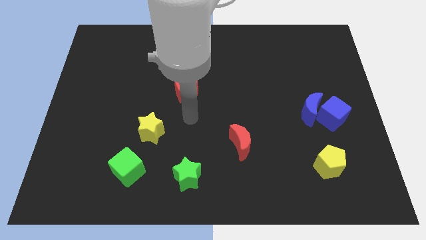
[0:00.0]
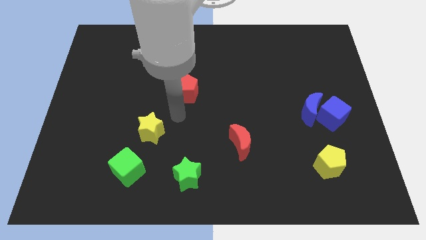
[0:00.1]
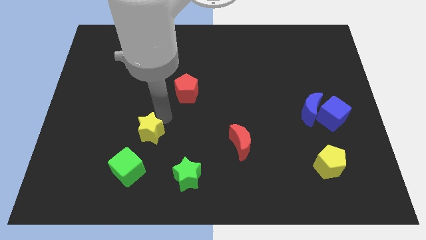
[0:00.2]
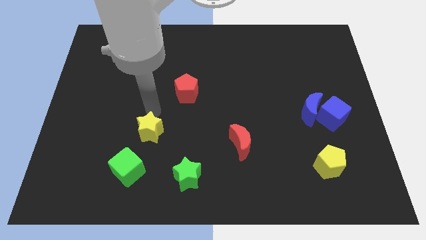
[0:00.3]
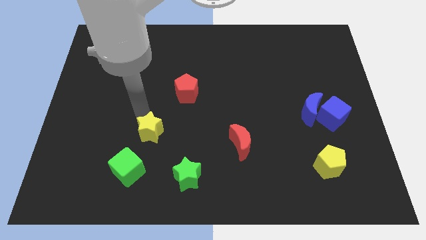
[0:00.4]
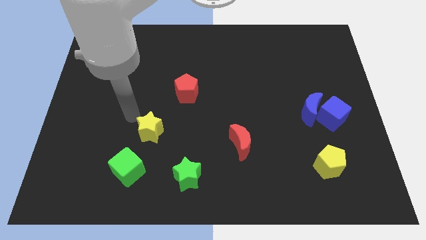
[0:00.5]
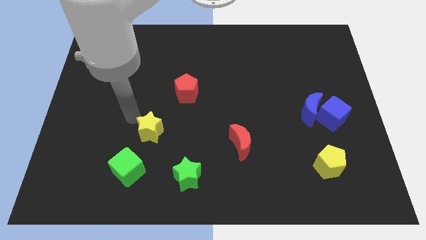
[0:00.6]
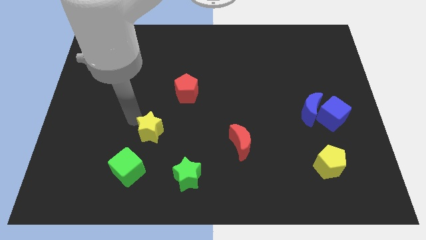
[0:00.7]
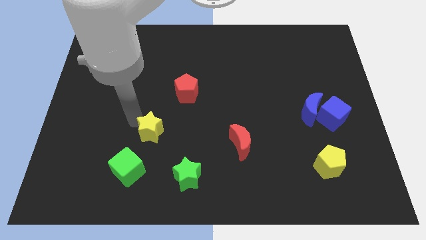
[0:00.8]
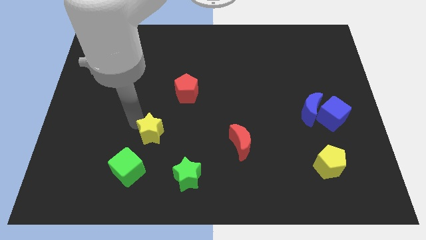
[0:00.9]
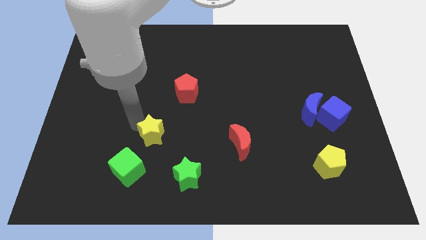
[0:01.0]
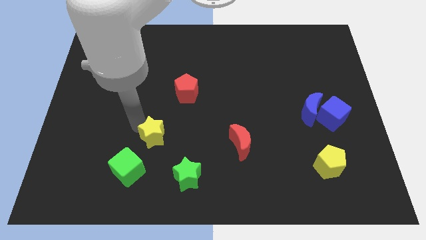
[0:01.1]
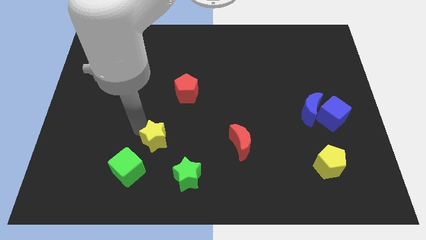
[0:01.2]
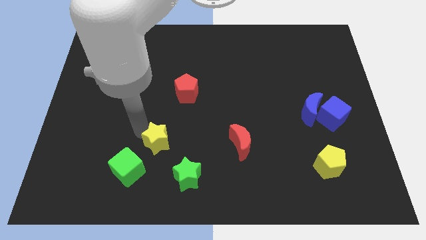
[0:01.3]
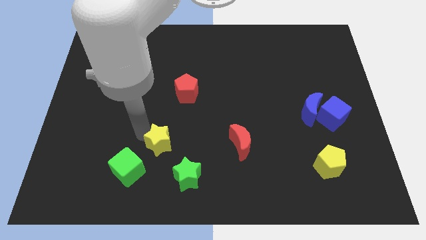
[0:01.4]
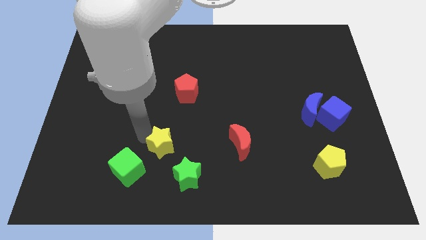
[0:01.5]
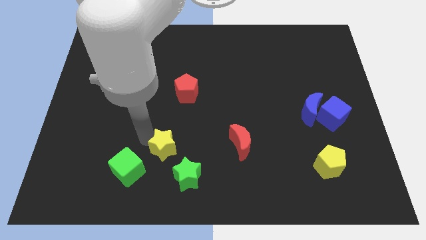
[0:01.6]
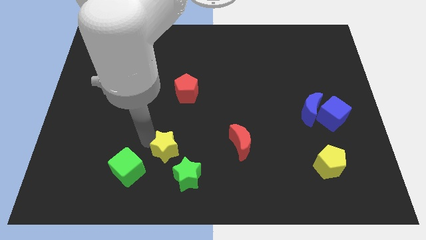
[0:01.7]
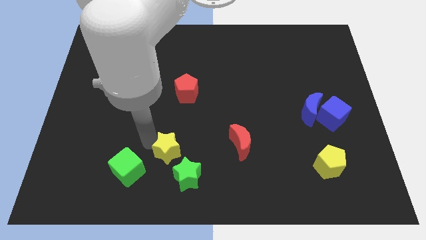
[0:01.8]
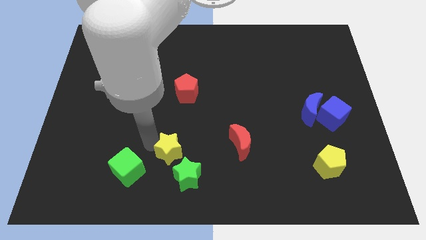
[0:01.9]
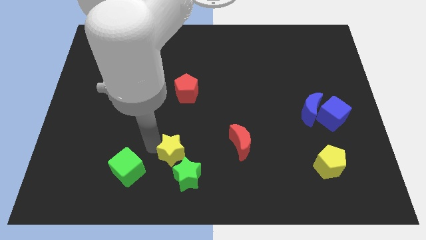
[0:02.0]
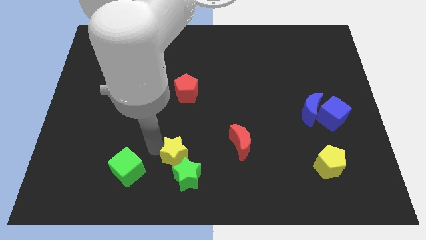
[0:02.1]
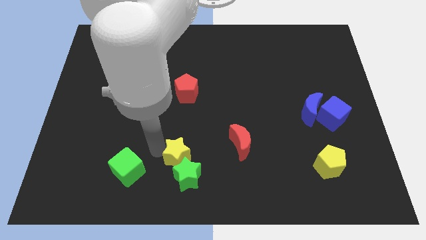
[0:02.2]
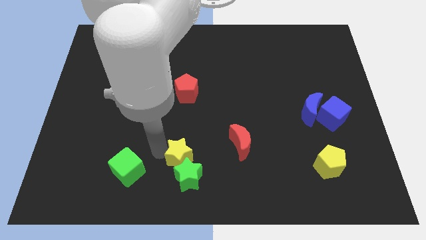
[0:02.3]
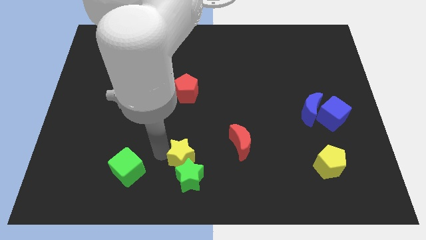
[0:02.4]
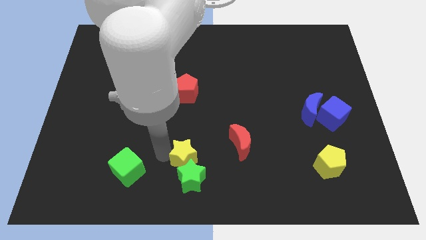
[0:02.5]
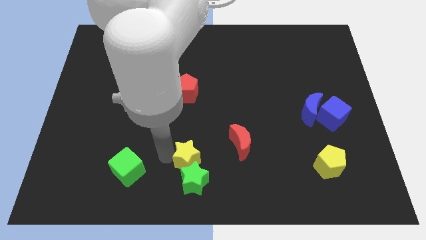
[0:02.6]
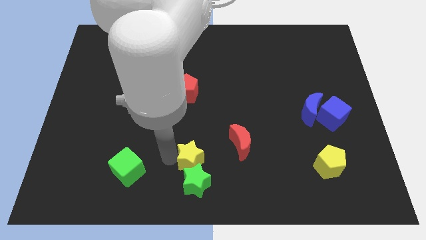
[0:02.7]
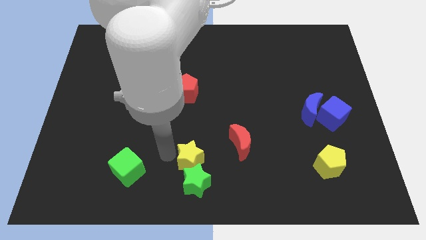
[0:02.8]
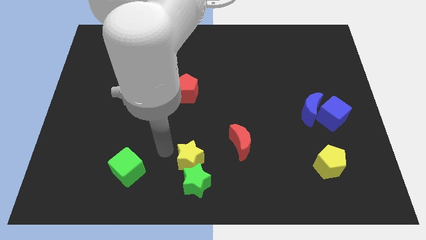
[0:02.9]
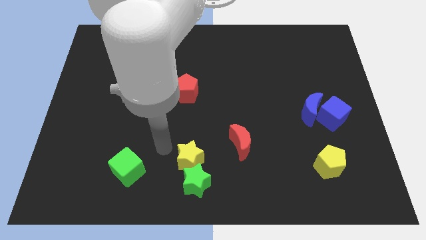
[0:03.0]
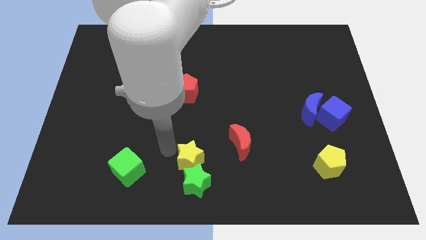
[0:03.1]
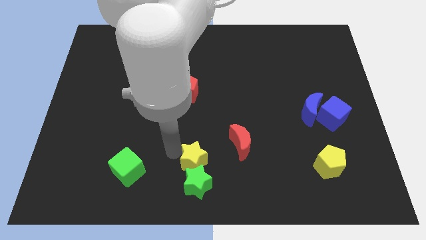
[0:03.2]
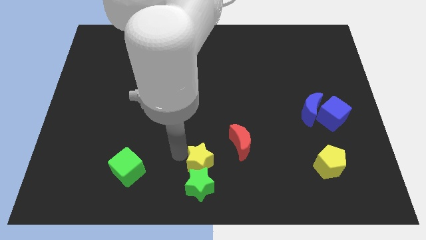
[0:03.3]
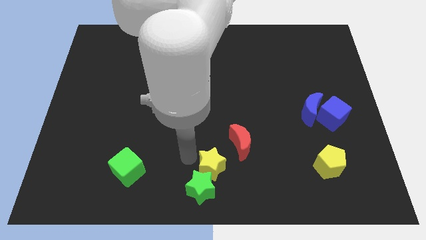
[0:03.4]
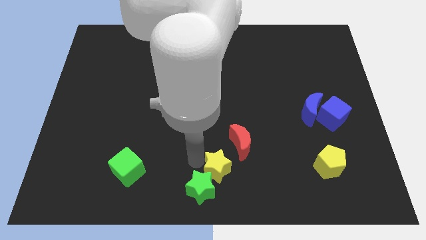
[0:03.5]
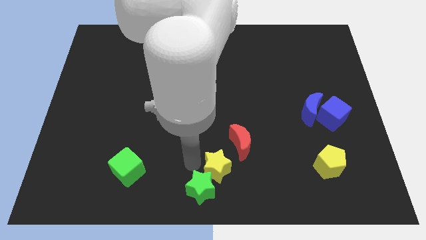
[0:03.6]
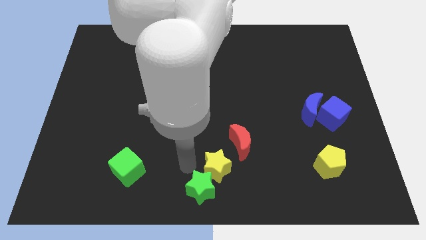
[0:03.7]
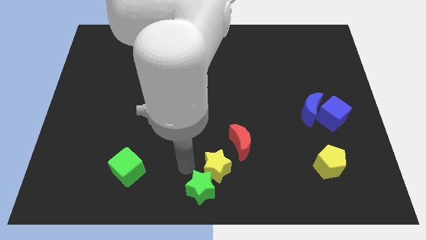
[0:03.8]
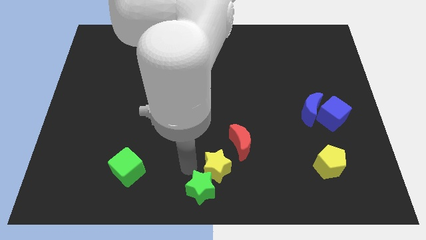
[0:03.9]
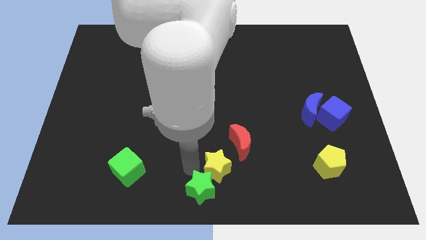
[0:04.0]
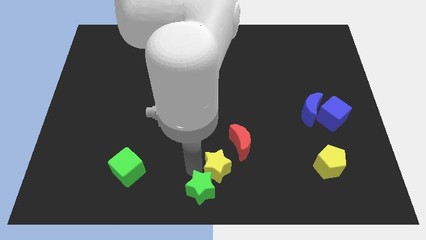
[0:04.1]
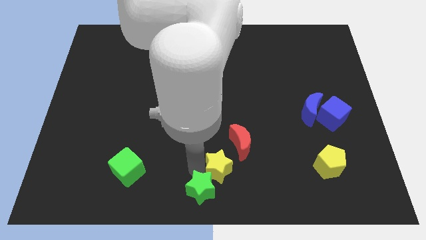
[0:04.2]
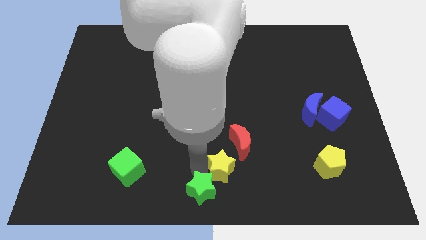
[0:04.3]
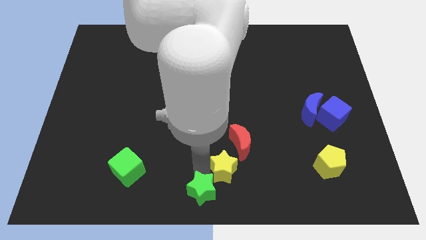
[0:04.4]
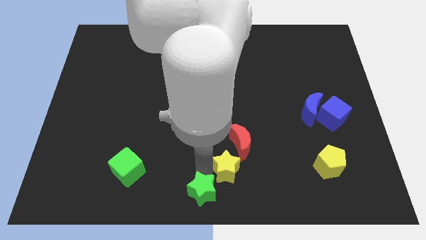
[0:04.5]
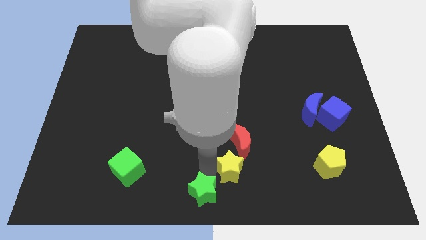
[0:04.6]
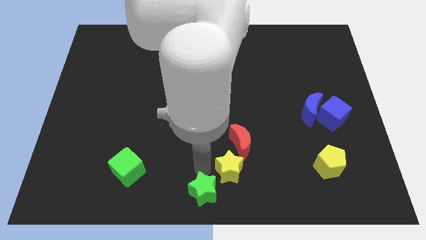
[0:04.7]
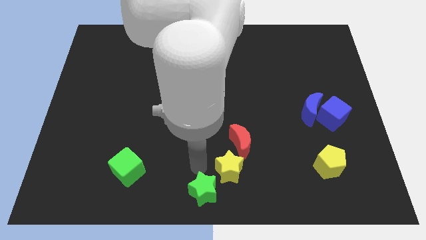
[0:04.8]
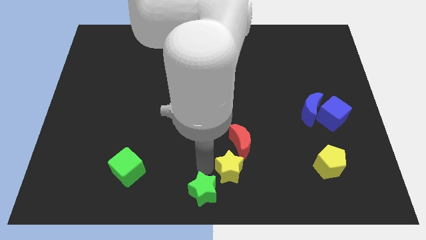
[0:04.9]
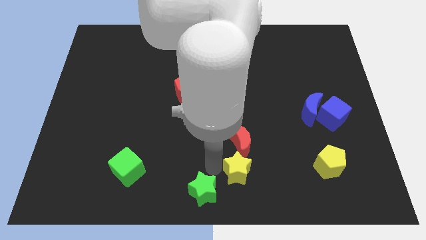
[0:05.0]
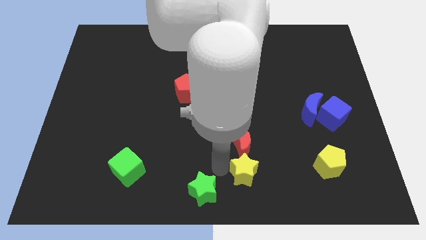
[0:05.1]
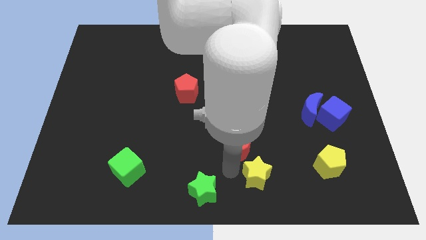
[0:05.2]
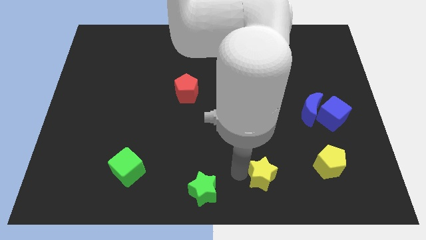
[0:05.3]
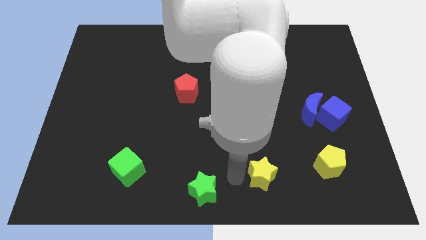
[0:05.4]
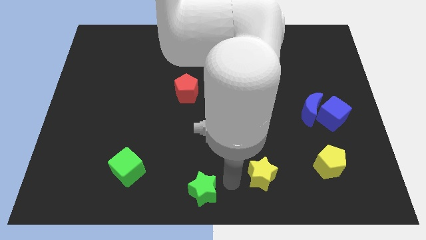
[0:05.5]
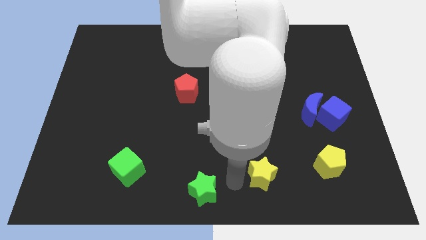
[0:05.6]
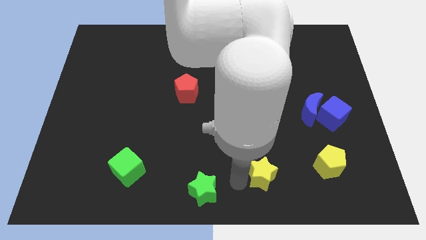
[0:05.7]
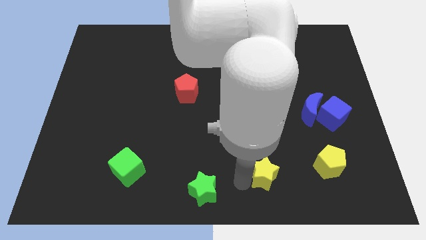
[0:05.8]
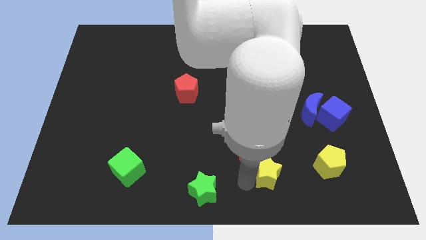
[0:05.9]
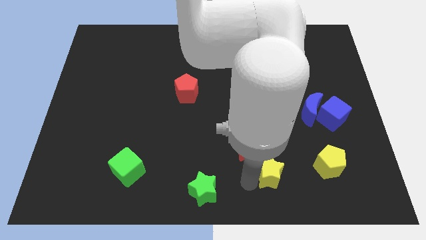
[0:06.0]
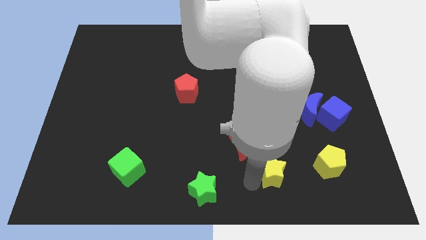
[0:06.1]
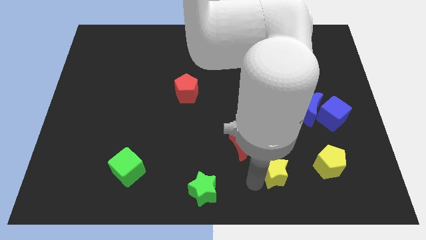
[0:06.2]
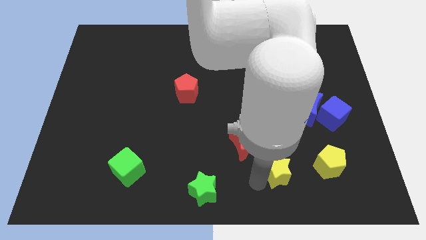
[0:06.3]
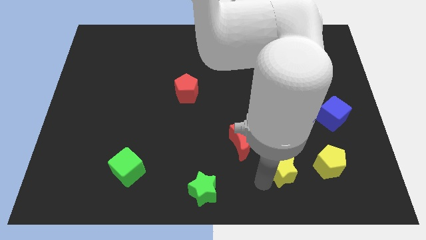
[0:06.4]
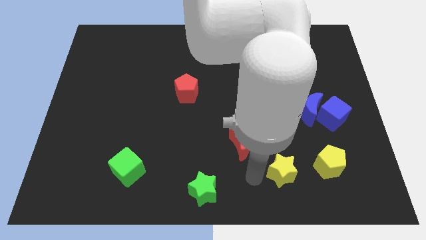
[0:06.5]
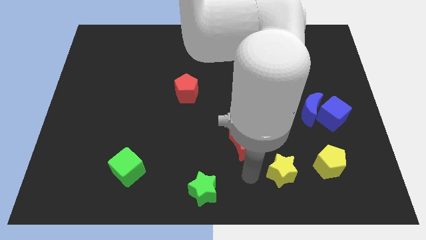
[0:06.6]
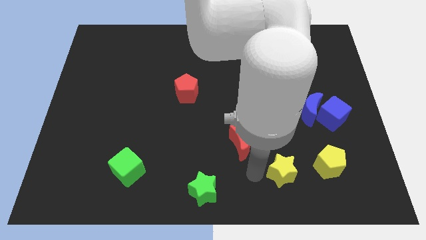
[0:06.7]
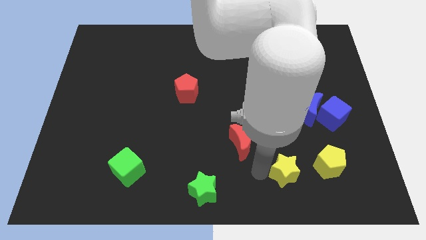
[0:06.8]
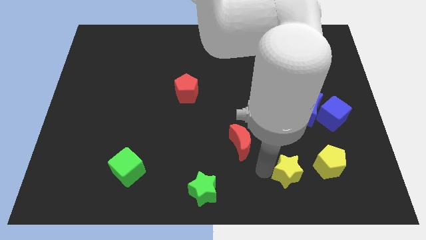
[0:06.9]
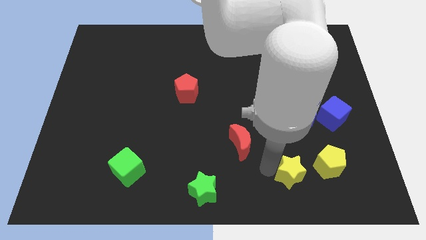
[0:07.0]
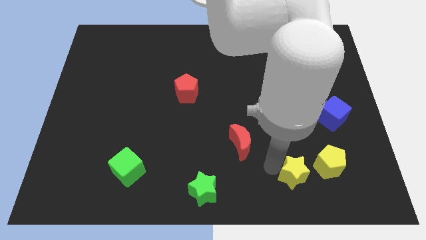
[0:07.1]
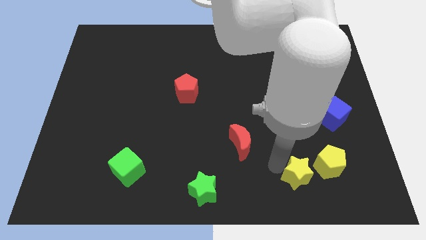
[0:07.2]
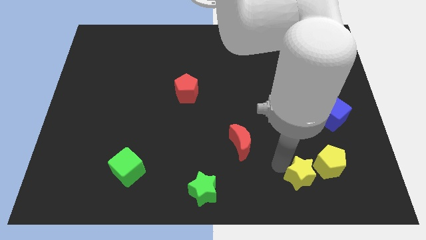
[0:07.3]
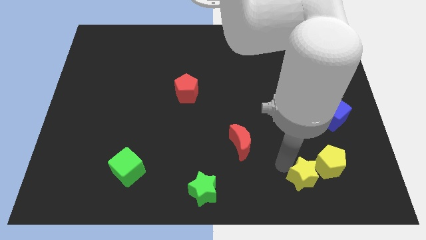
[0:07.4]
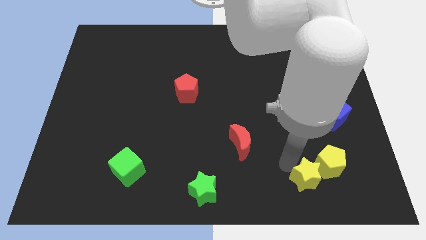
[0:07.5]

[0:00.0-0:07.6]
push the yellow star next to the yellow pentagon
